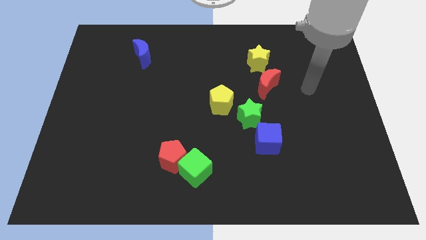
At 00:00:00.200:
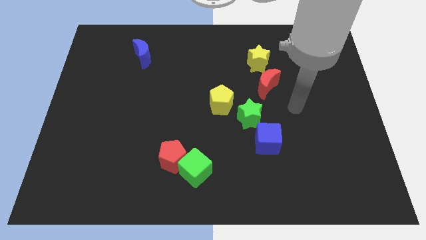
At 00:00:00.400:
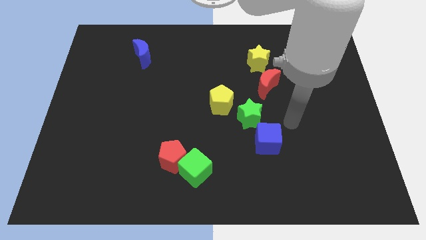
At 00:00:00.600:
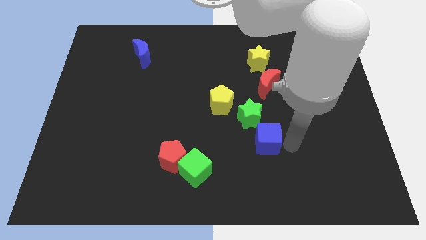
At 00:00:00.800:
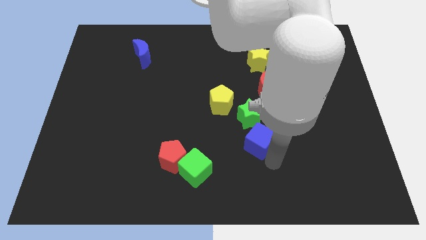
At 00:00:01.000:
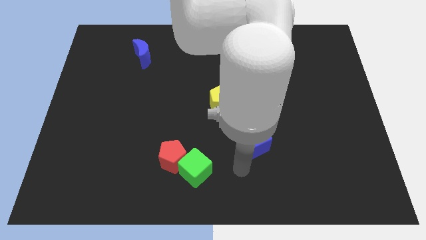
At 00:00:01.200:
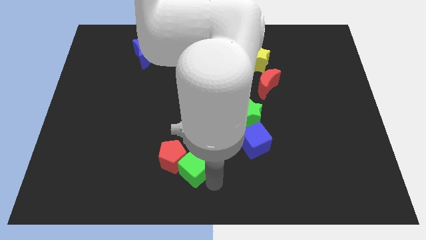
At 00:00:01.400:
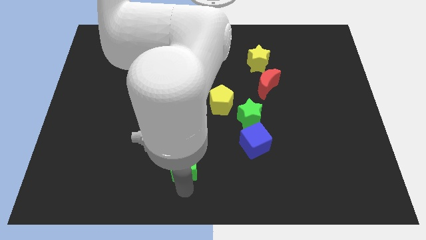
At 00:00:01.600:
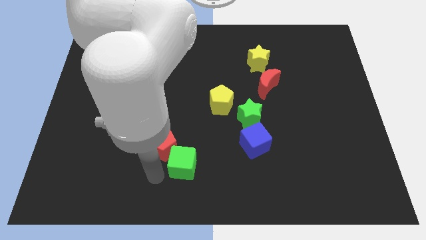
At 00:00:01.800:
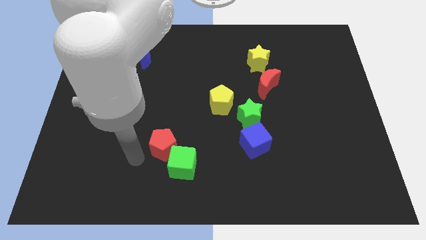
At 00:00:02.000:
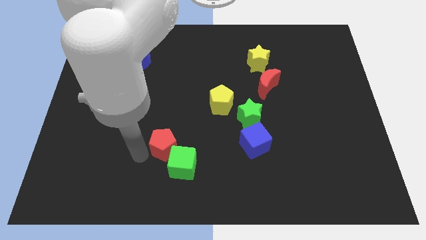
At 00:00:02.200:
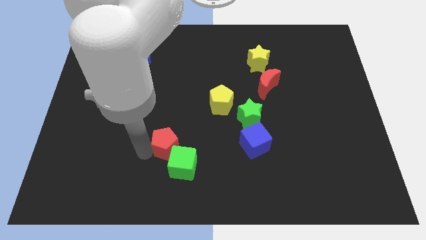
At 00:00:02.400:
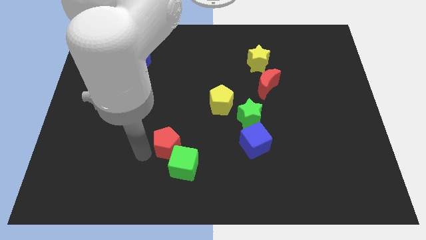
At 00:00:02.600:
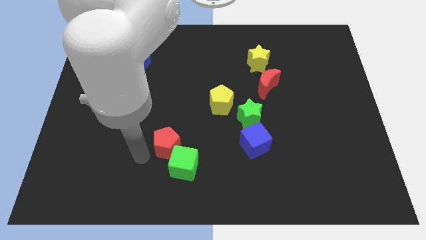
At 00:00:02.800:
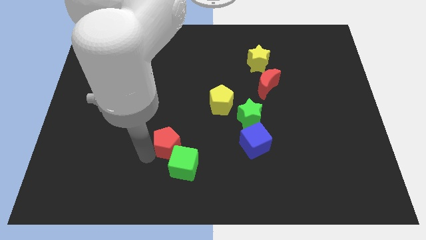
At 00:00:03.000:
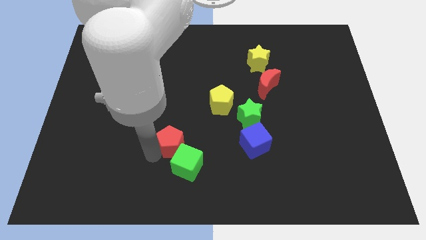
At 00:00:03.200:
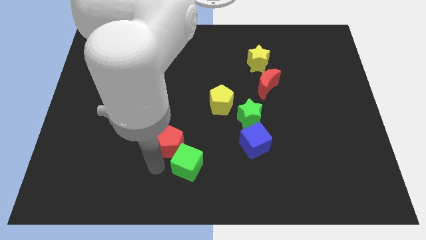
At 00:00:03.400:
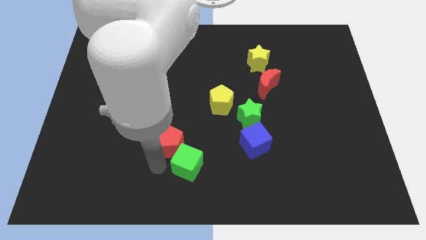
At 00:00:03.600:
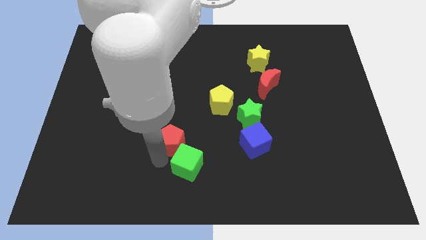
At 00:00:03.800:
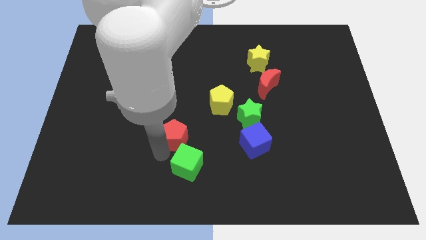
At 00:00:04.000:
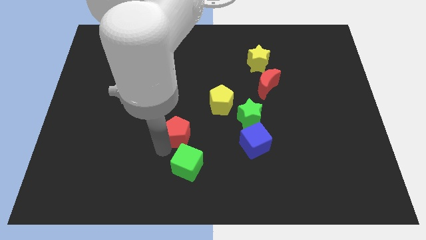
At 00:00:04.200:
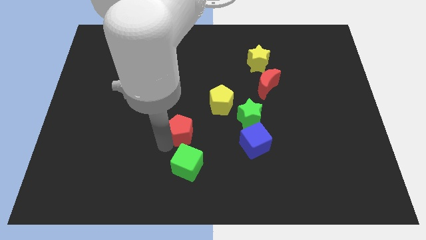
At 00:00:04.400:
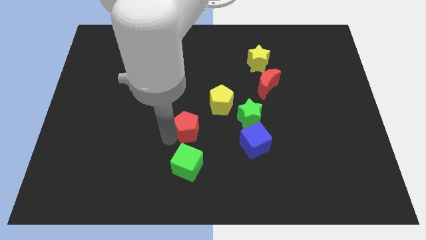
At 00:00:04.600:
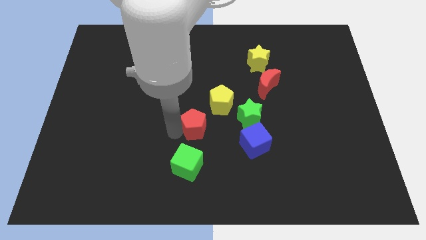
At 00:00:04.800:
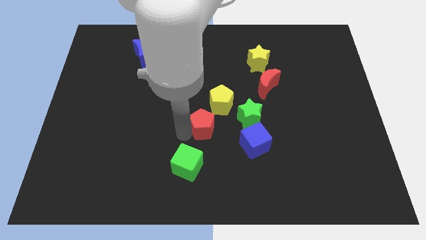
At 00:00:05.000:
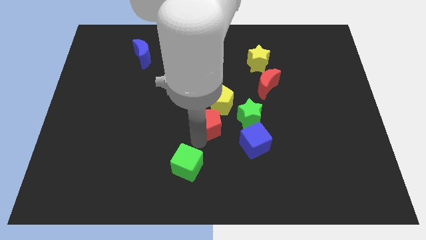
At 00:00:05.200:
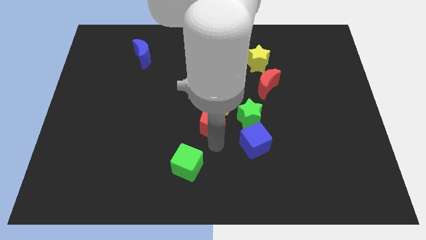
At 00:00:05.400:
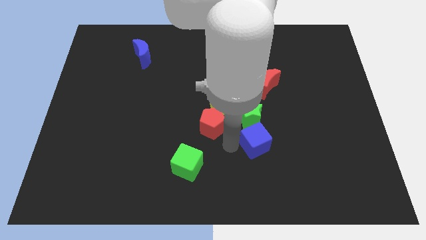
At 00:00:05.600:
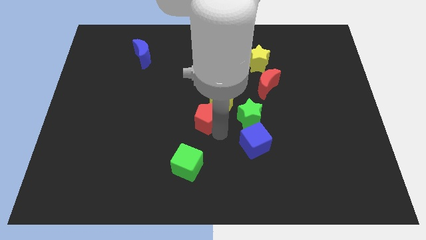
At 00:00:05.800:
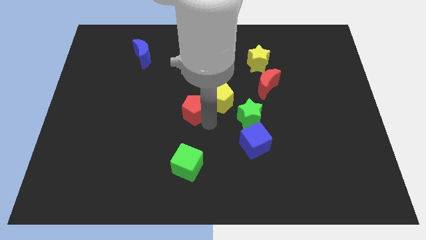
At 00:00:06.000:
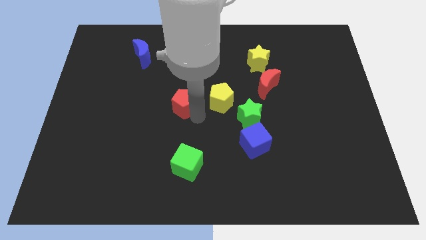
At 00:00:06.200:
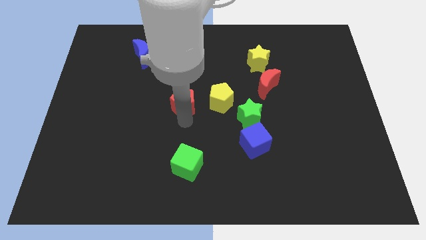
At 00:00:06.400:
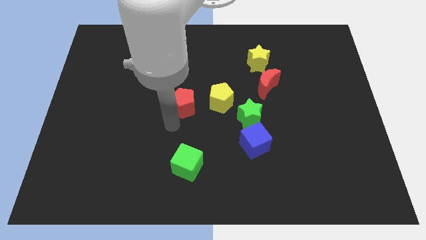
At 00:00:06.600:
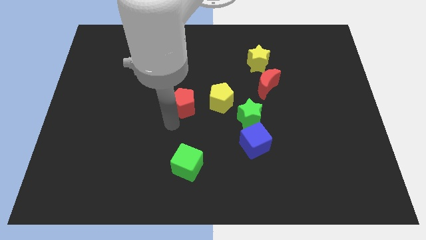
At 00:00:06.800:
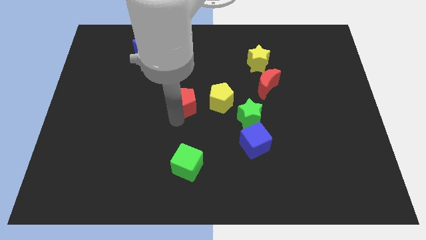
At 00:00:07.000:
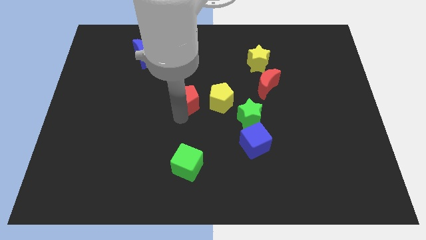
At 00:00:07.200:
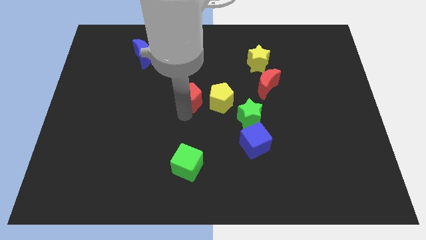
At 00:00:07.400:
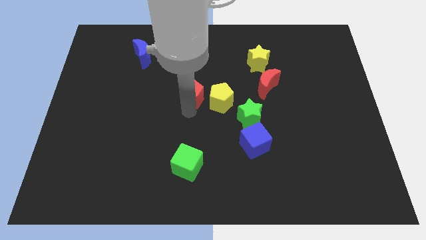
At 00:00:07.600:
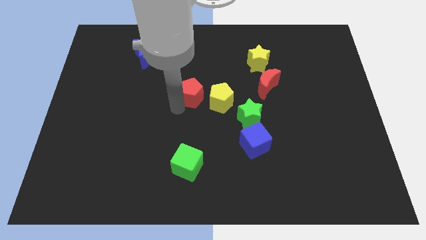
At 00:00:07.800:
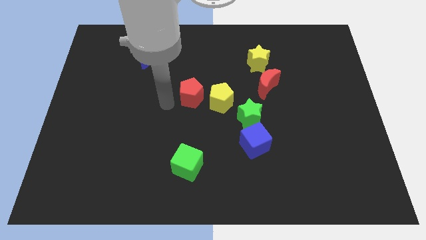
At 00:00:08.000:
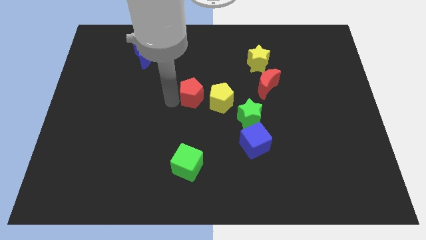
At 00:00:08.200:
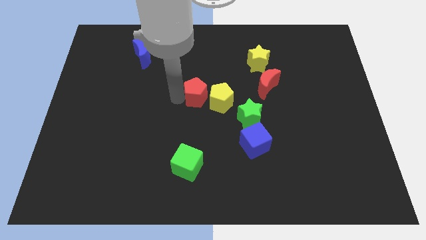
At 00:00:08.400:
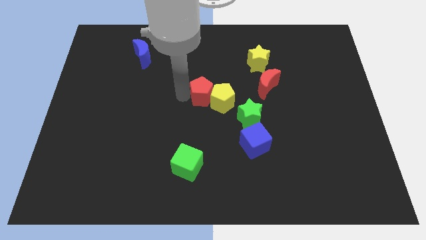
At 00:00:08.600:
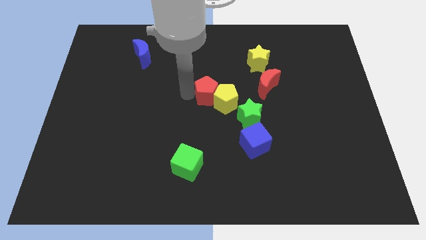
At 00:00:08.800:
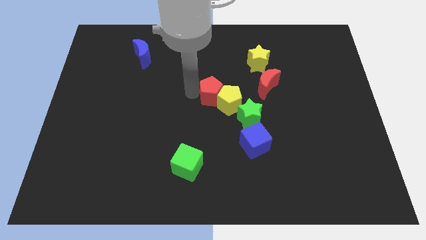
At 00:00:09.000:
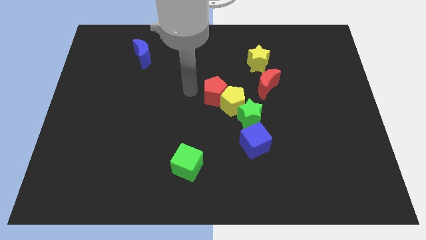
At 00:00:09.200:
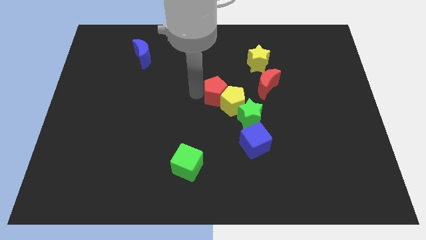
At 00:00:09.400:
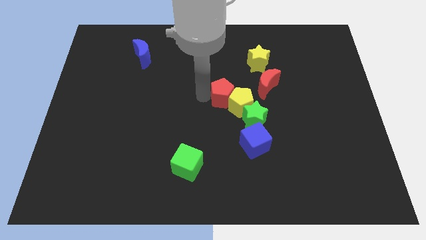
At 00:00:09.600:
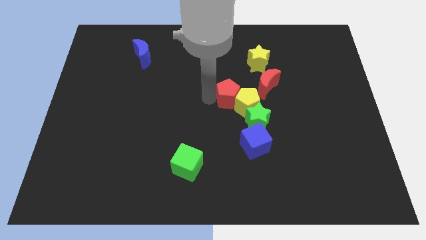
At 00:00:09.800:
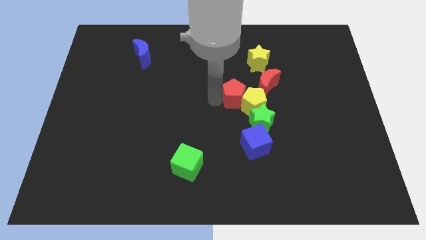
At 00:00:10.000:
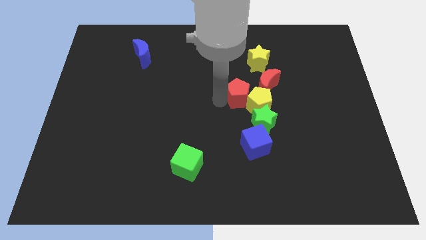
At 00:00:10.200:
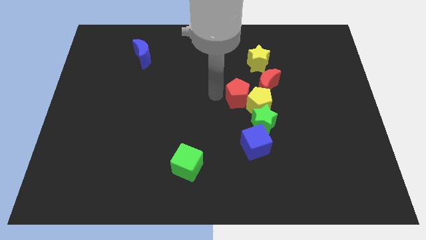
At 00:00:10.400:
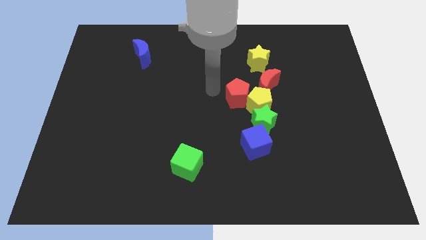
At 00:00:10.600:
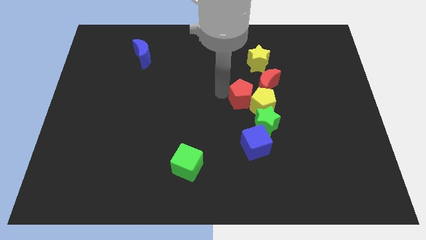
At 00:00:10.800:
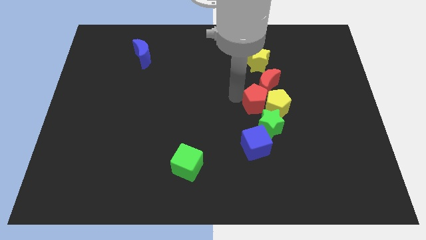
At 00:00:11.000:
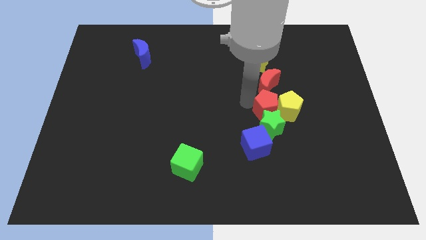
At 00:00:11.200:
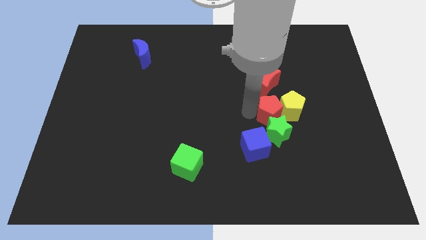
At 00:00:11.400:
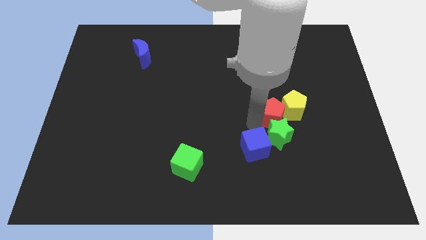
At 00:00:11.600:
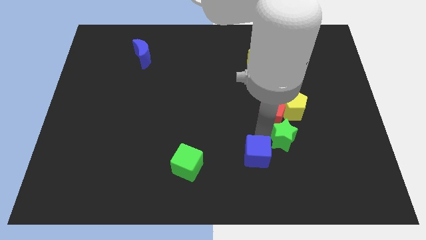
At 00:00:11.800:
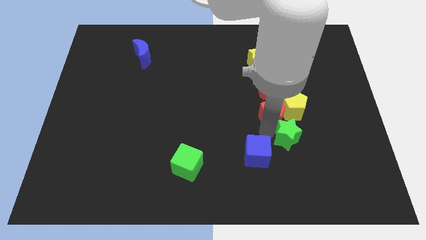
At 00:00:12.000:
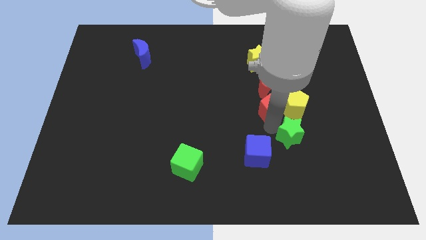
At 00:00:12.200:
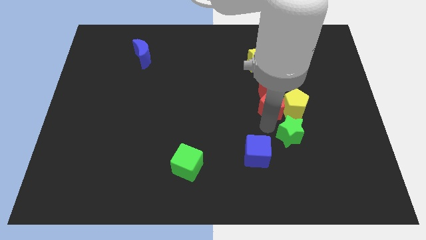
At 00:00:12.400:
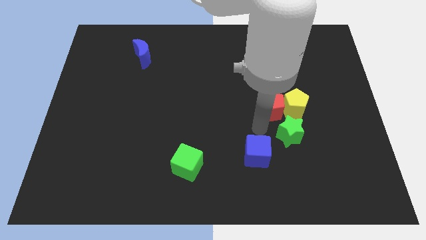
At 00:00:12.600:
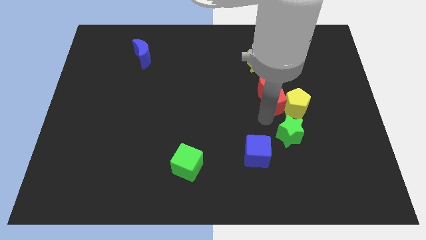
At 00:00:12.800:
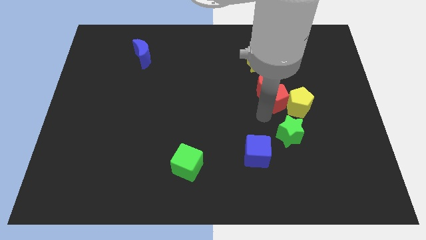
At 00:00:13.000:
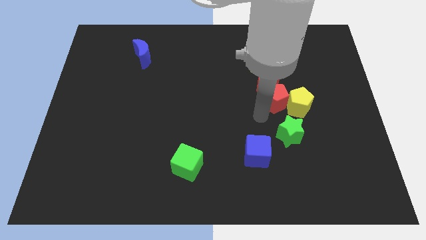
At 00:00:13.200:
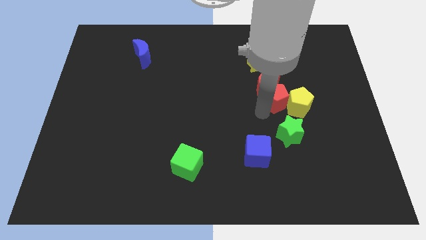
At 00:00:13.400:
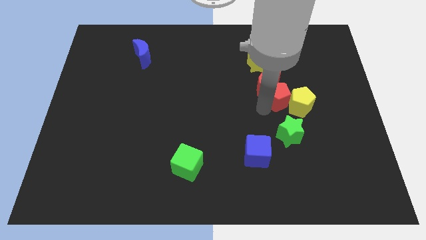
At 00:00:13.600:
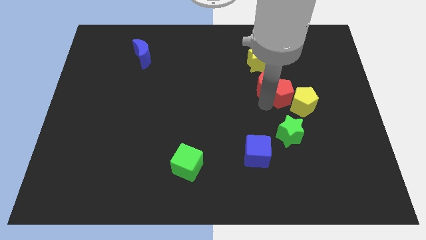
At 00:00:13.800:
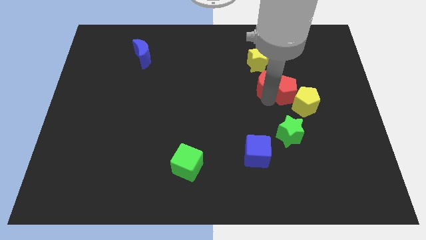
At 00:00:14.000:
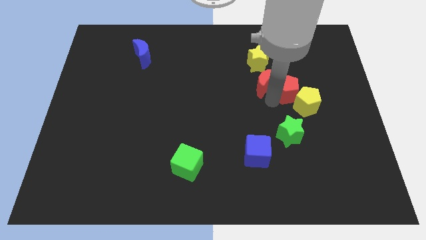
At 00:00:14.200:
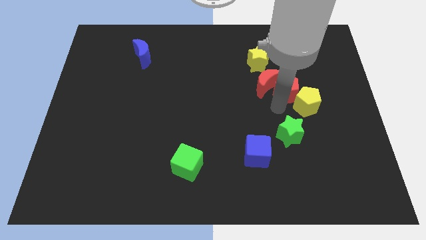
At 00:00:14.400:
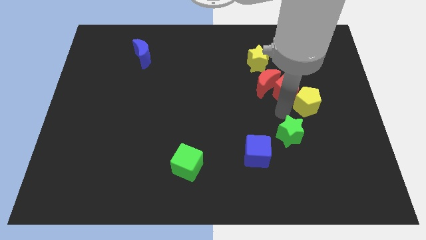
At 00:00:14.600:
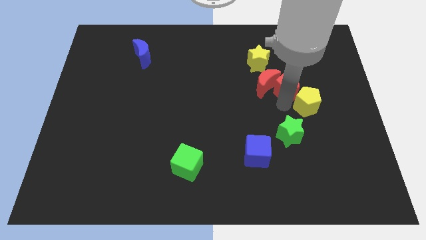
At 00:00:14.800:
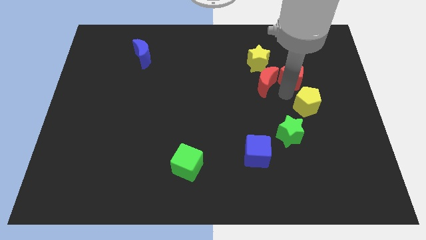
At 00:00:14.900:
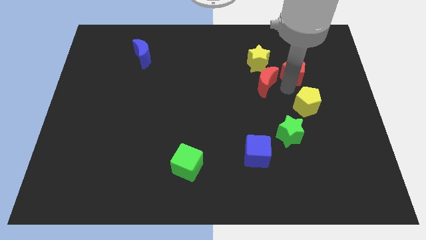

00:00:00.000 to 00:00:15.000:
put the red pentagon to the right of the yellow star
